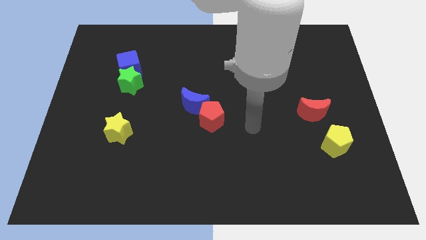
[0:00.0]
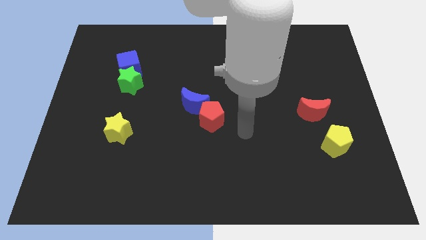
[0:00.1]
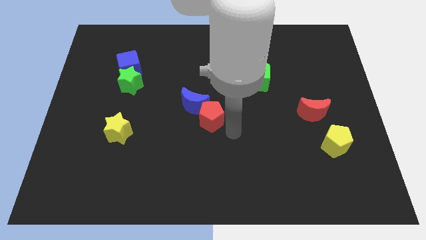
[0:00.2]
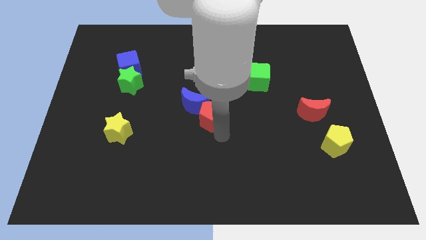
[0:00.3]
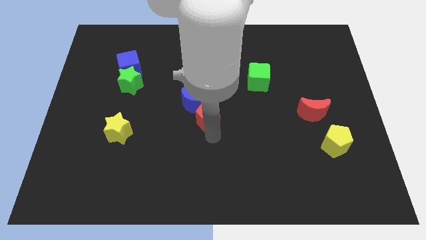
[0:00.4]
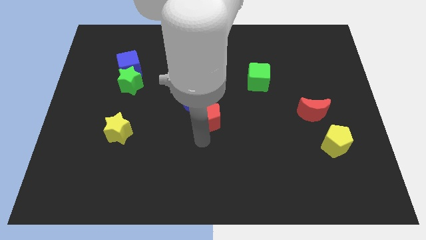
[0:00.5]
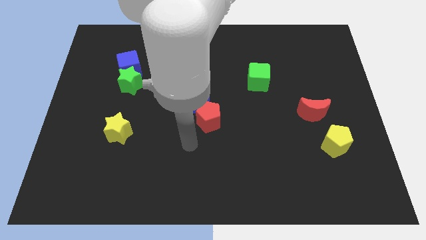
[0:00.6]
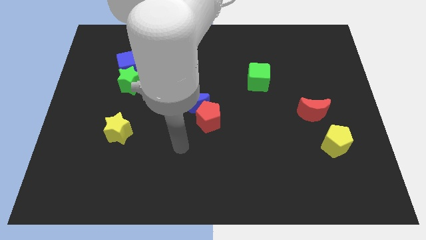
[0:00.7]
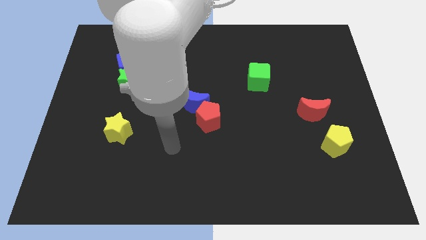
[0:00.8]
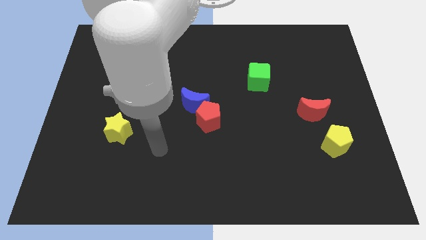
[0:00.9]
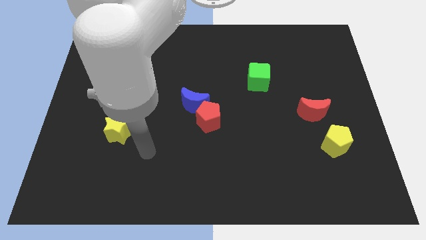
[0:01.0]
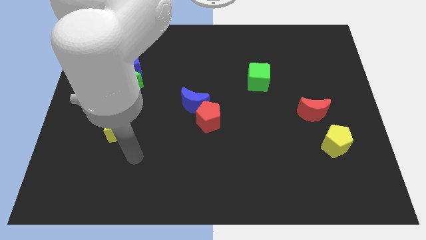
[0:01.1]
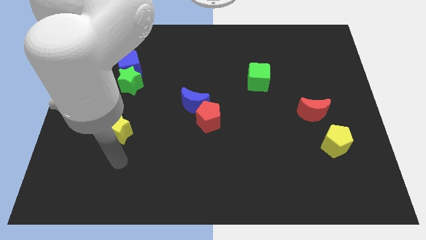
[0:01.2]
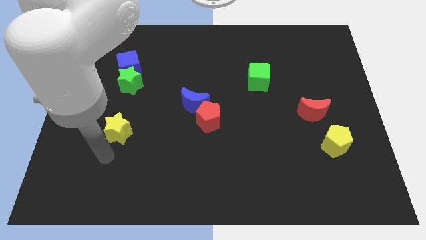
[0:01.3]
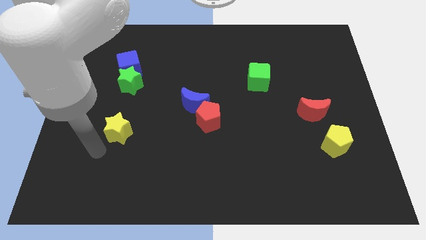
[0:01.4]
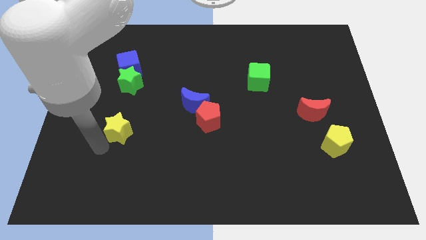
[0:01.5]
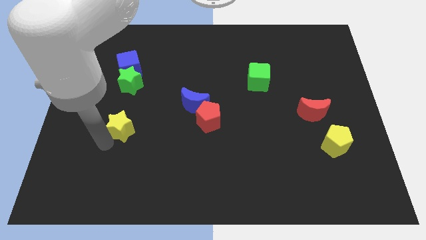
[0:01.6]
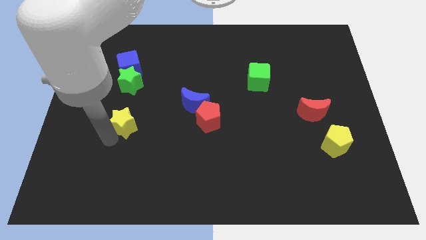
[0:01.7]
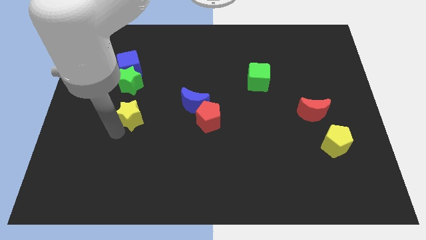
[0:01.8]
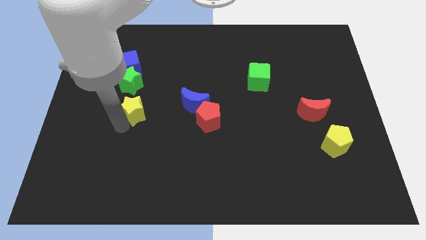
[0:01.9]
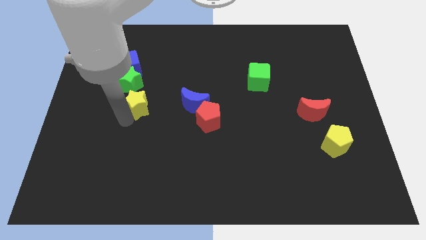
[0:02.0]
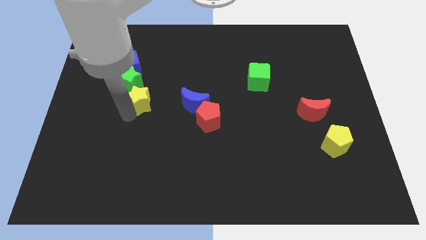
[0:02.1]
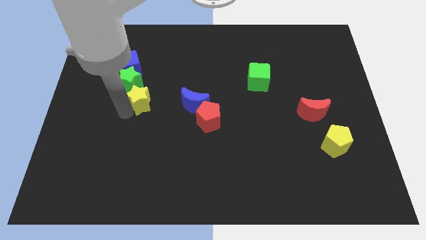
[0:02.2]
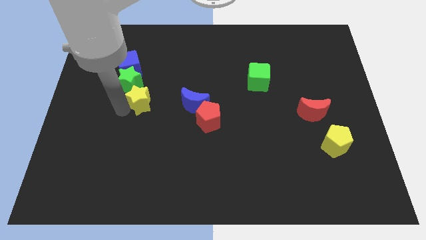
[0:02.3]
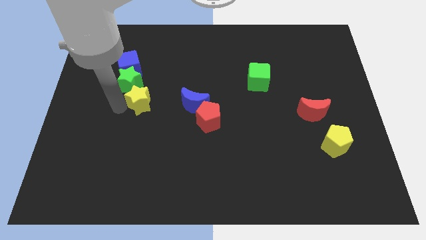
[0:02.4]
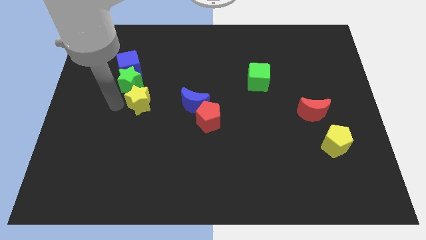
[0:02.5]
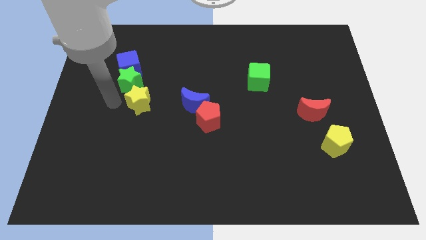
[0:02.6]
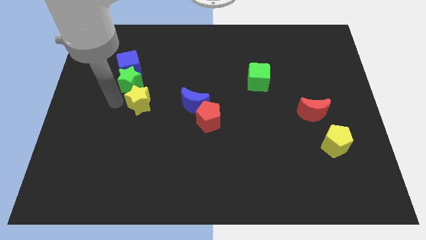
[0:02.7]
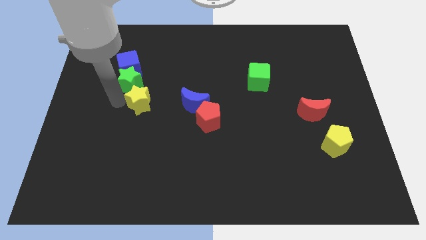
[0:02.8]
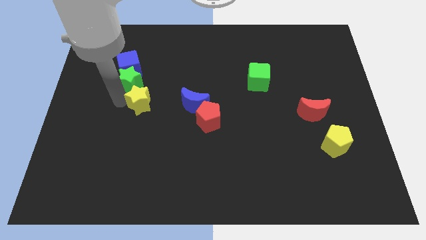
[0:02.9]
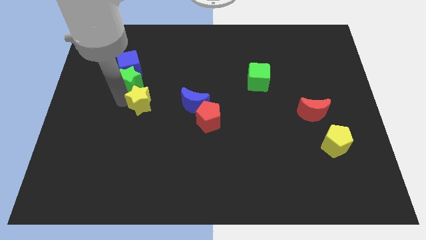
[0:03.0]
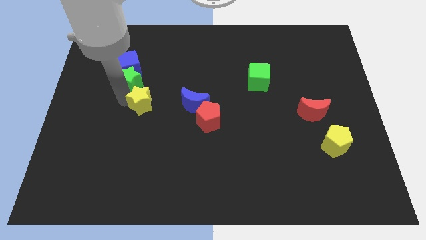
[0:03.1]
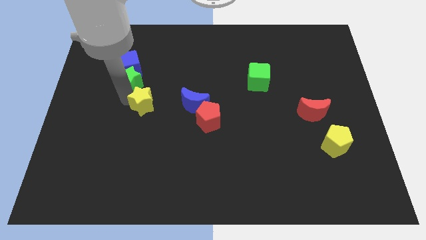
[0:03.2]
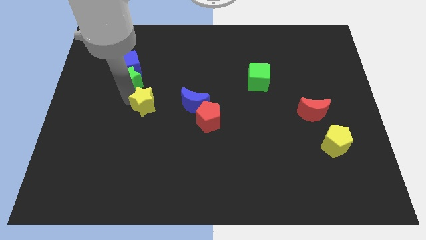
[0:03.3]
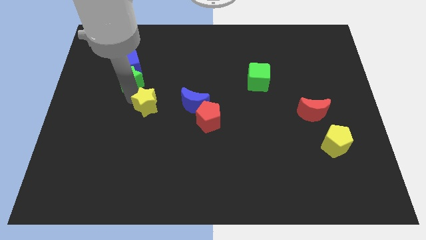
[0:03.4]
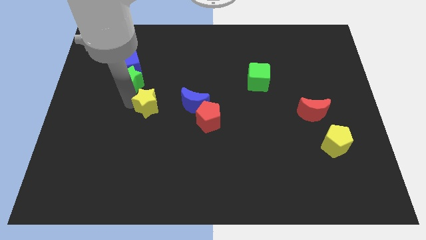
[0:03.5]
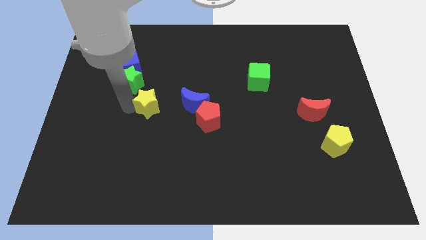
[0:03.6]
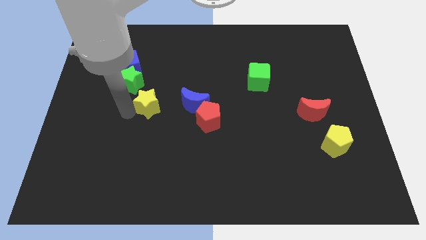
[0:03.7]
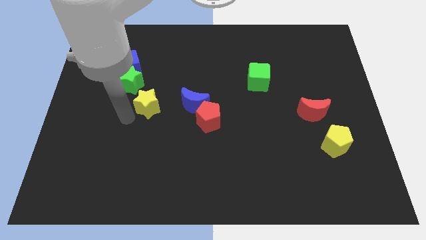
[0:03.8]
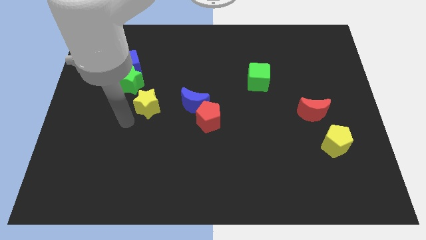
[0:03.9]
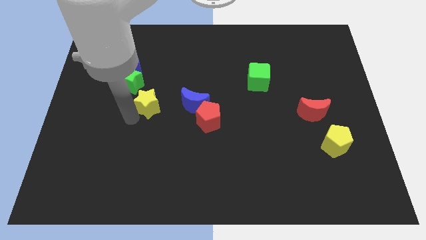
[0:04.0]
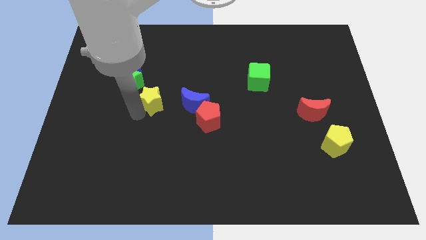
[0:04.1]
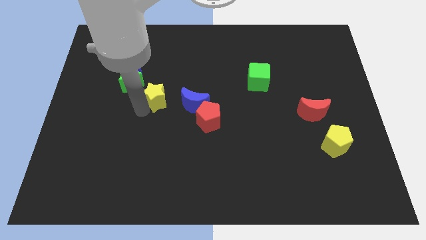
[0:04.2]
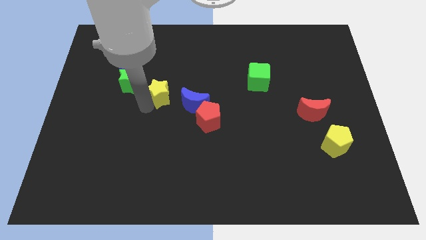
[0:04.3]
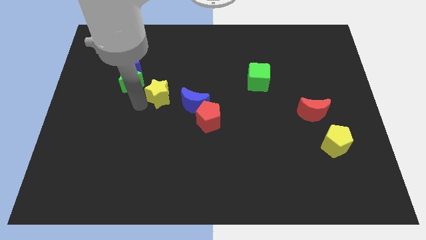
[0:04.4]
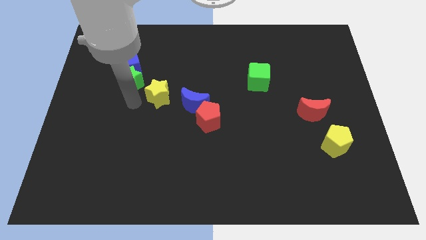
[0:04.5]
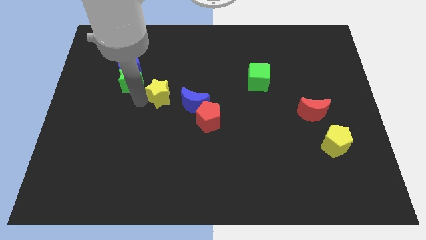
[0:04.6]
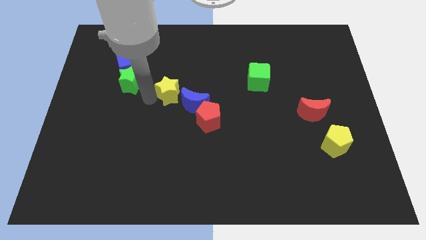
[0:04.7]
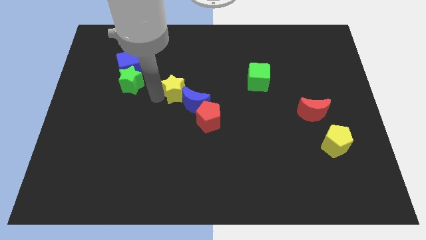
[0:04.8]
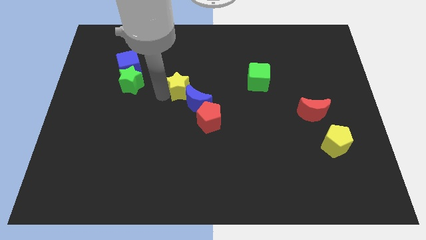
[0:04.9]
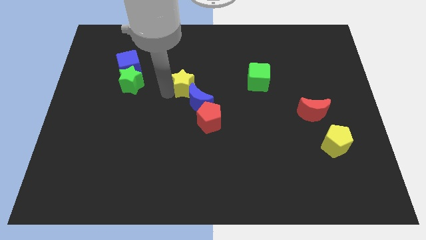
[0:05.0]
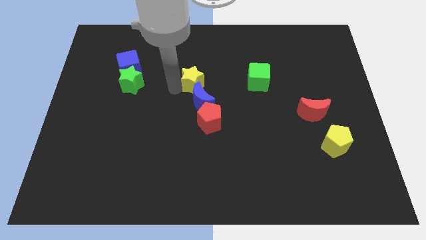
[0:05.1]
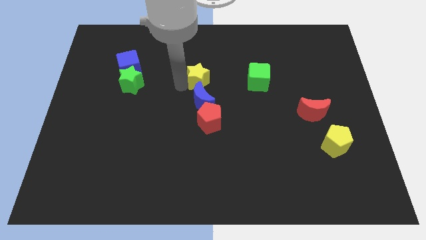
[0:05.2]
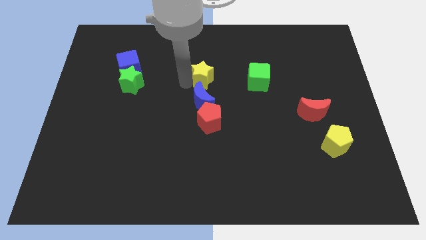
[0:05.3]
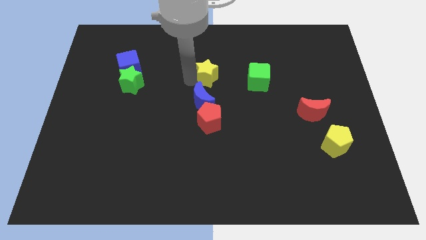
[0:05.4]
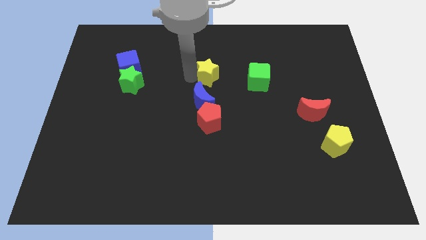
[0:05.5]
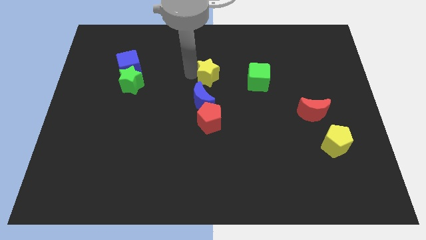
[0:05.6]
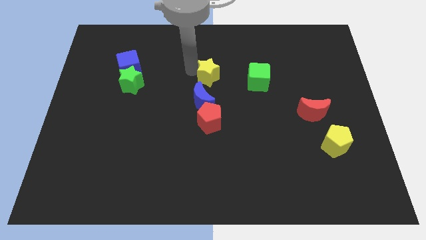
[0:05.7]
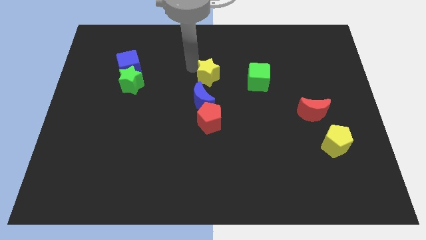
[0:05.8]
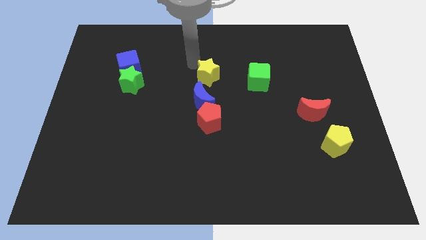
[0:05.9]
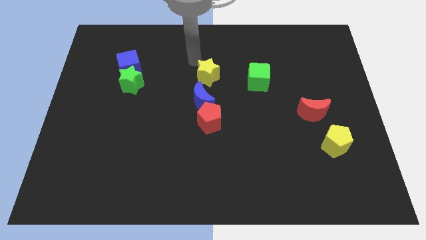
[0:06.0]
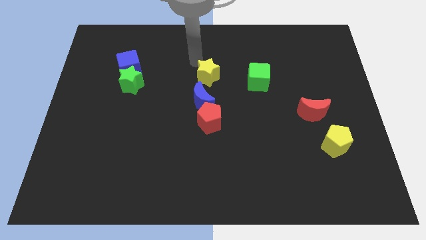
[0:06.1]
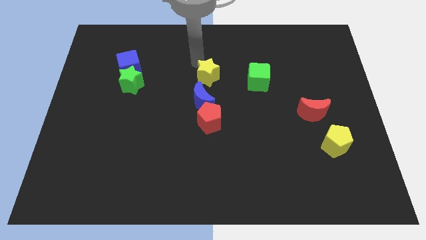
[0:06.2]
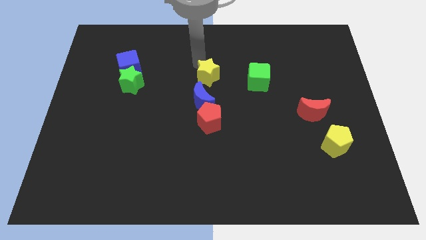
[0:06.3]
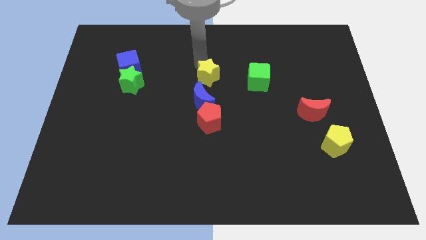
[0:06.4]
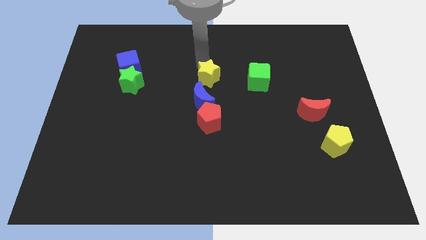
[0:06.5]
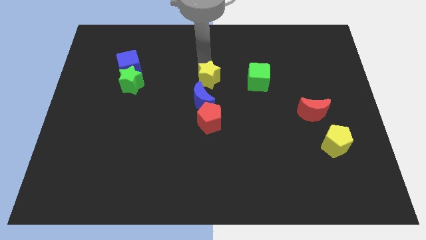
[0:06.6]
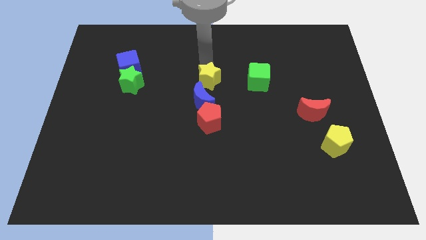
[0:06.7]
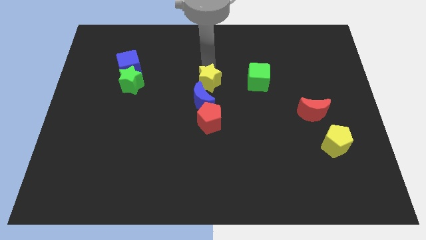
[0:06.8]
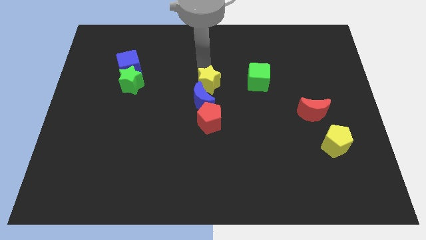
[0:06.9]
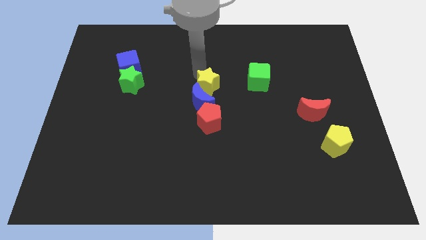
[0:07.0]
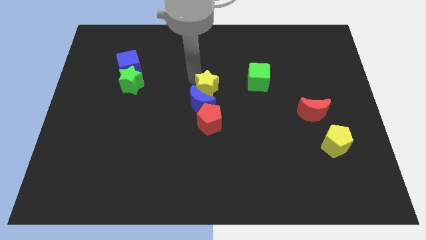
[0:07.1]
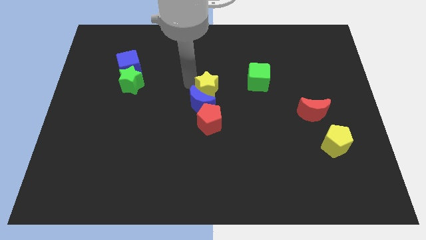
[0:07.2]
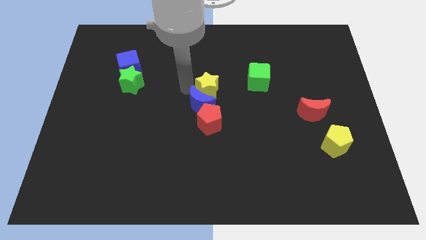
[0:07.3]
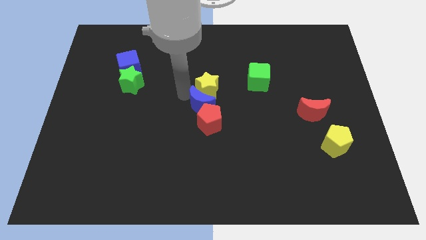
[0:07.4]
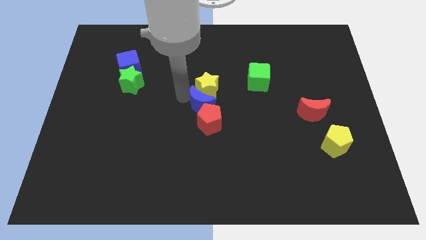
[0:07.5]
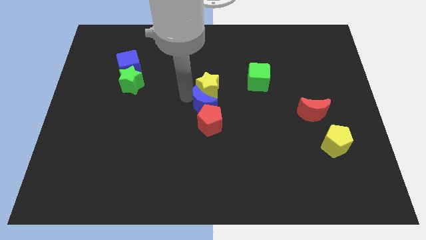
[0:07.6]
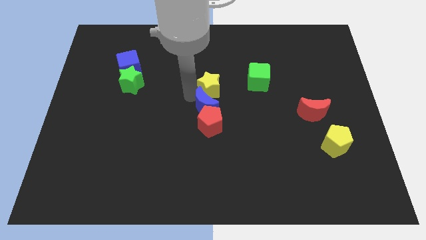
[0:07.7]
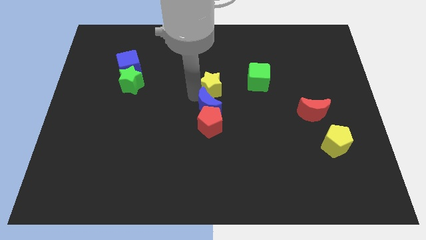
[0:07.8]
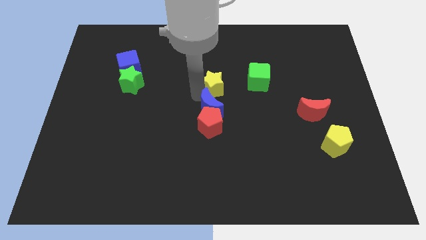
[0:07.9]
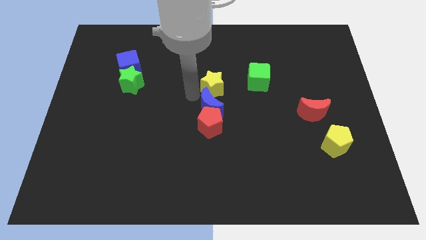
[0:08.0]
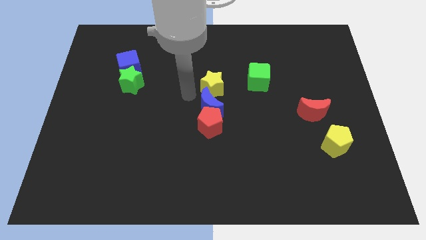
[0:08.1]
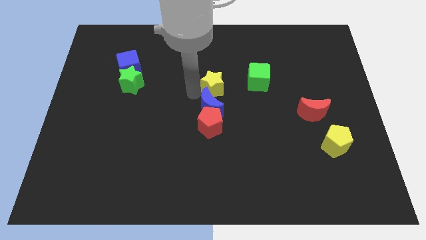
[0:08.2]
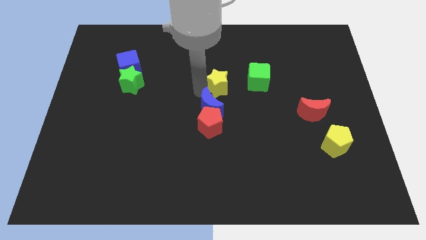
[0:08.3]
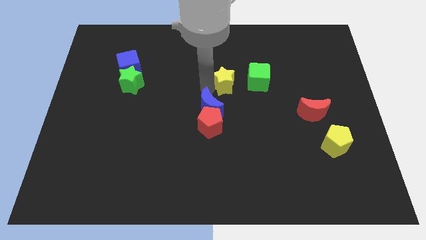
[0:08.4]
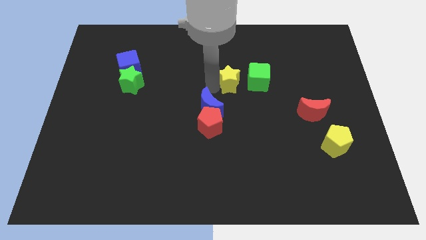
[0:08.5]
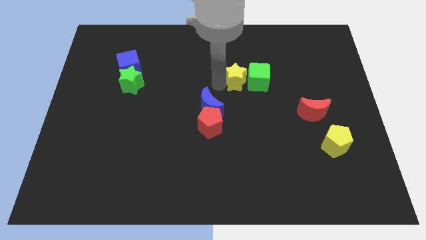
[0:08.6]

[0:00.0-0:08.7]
push the yellow star towards the green cube
